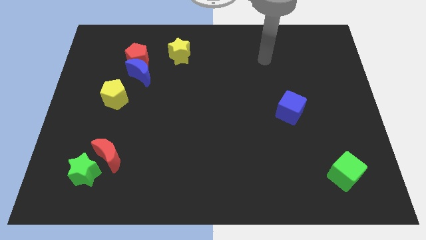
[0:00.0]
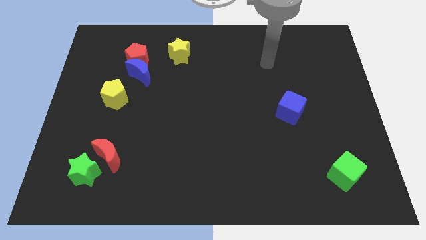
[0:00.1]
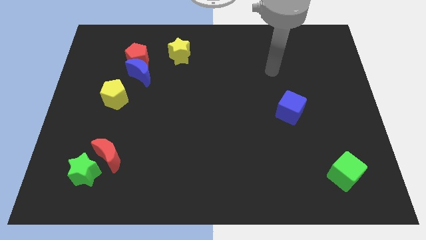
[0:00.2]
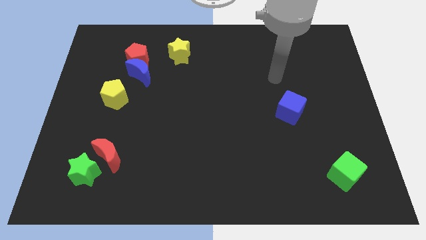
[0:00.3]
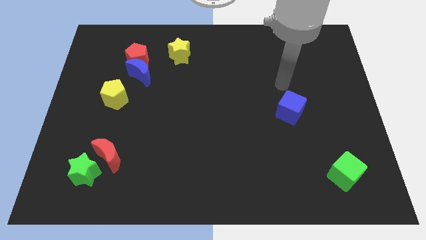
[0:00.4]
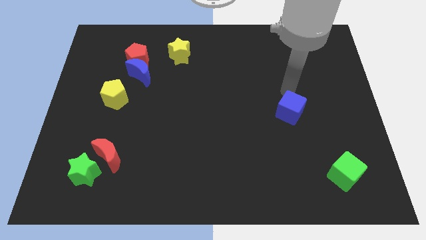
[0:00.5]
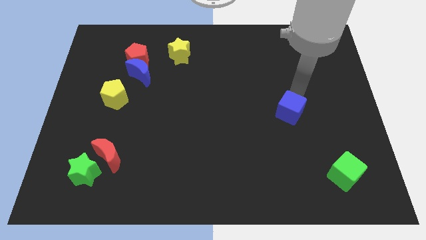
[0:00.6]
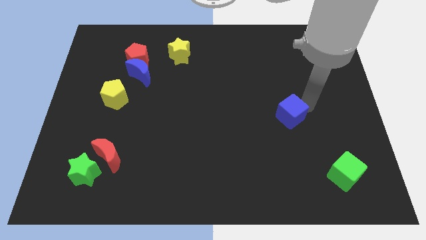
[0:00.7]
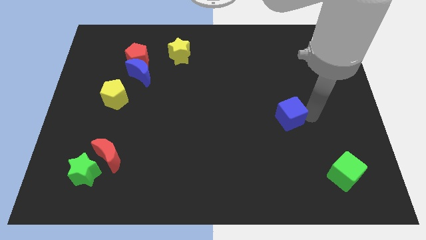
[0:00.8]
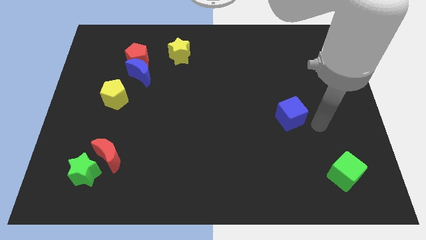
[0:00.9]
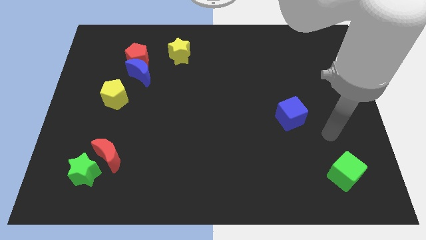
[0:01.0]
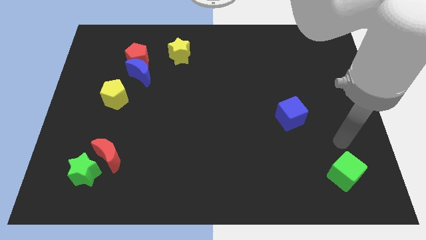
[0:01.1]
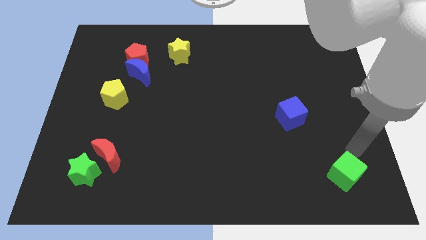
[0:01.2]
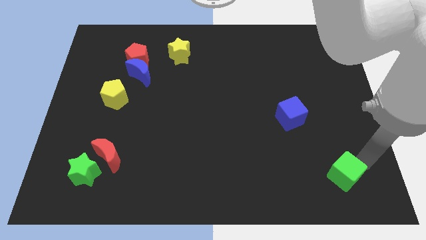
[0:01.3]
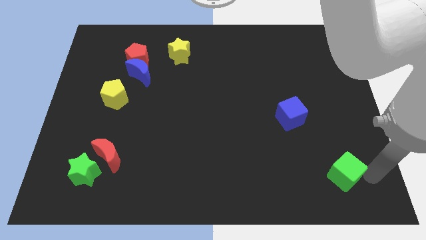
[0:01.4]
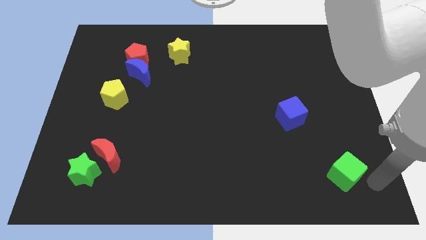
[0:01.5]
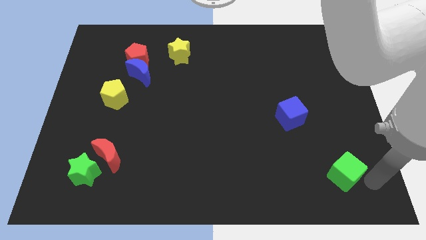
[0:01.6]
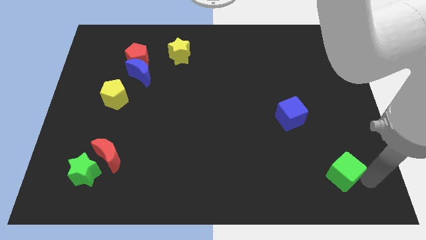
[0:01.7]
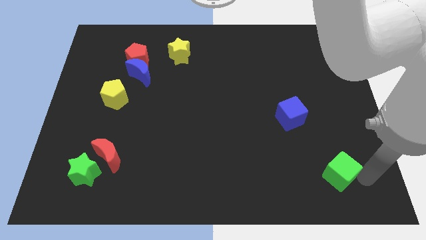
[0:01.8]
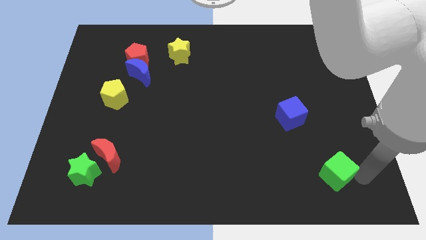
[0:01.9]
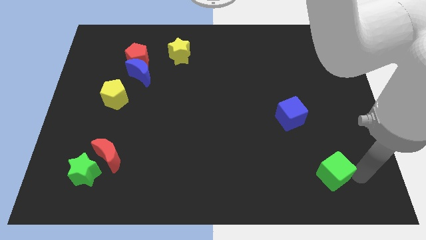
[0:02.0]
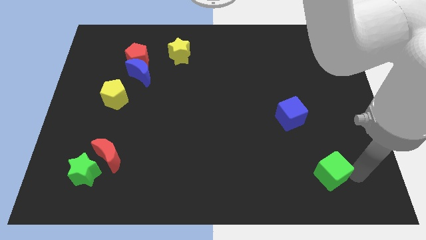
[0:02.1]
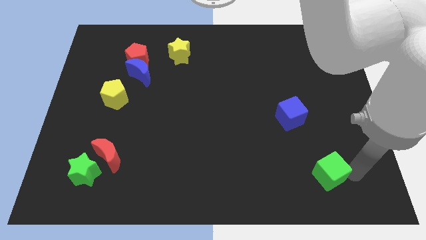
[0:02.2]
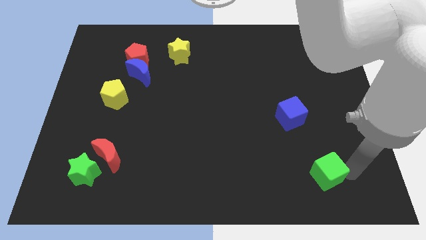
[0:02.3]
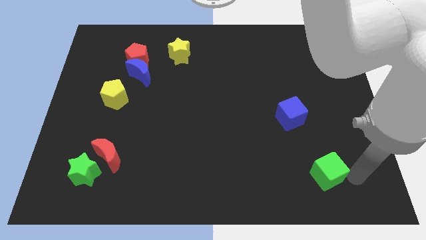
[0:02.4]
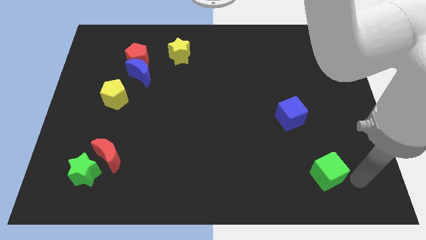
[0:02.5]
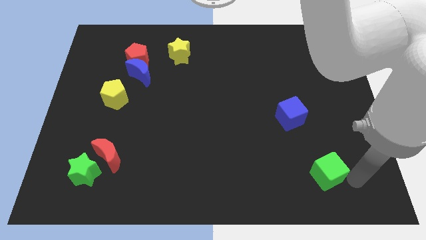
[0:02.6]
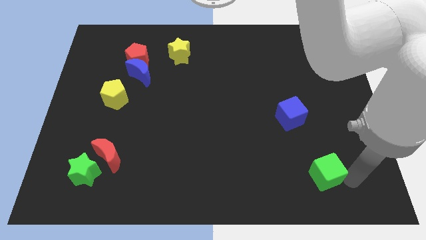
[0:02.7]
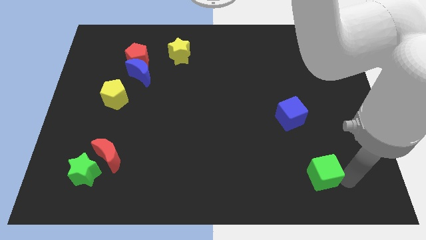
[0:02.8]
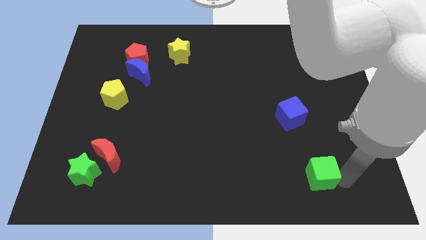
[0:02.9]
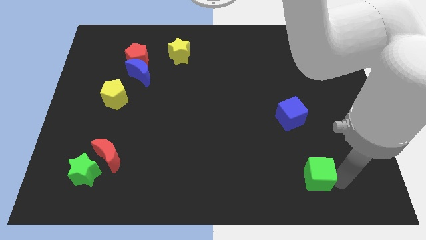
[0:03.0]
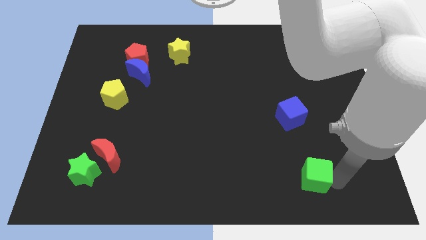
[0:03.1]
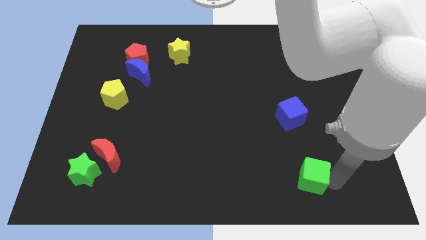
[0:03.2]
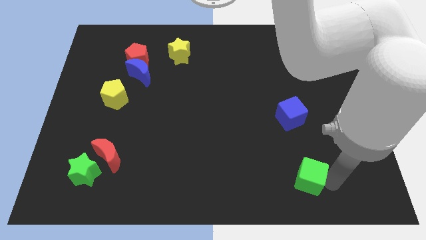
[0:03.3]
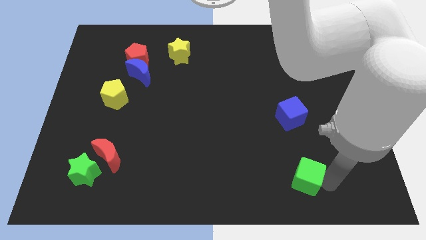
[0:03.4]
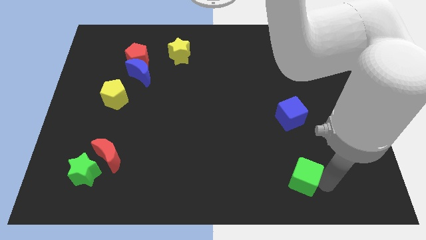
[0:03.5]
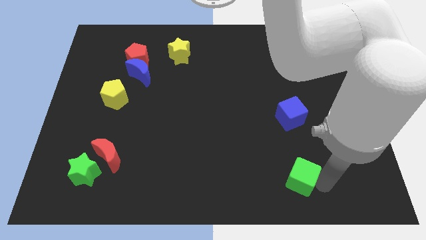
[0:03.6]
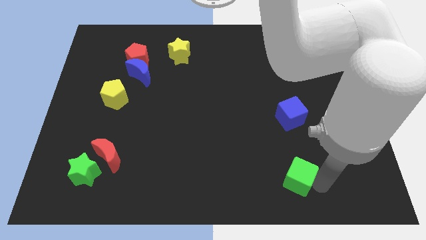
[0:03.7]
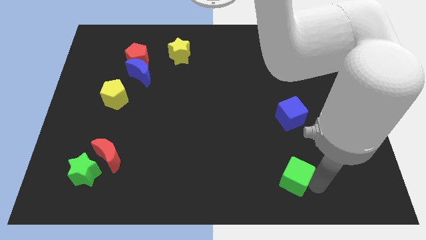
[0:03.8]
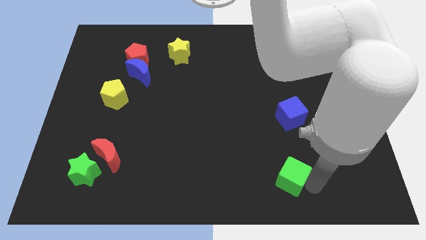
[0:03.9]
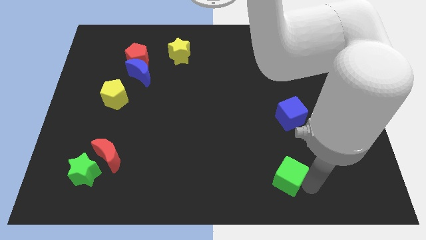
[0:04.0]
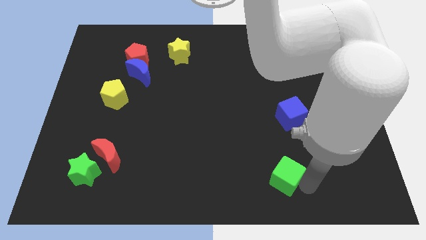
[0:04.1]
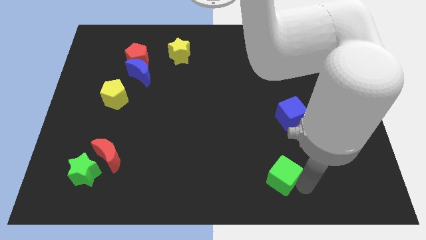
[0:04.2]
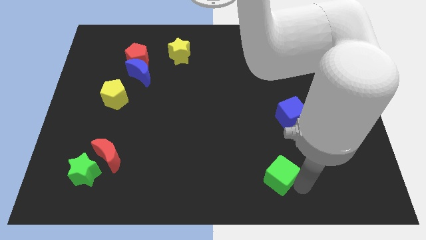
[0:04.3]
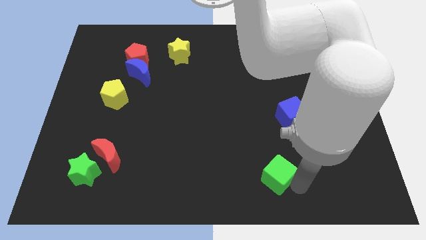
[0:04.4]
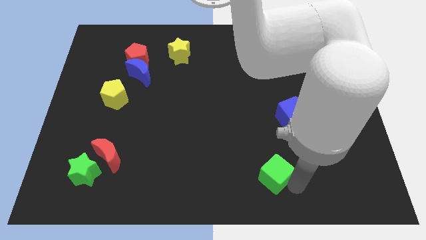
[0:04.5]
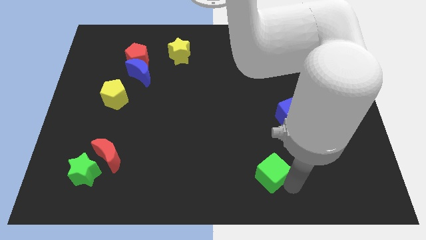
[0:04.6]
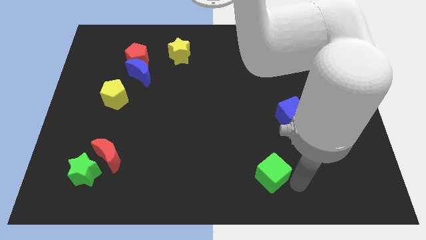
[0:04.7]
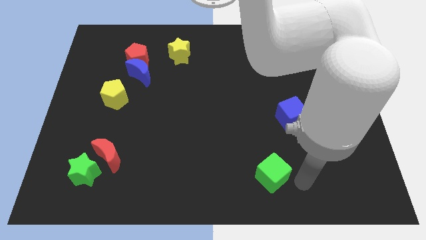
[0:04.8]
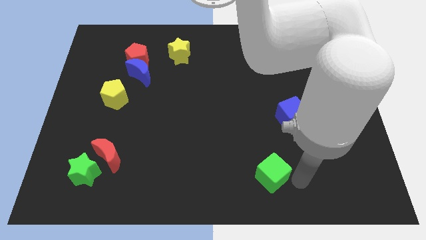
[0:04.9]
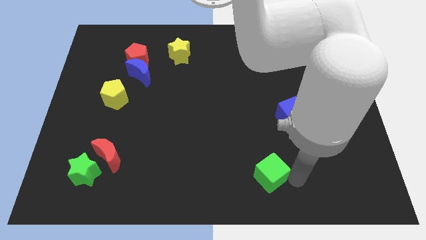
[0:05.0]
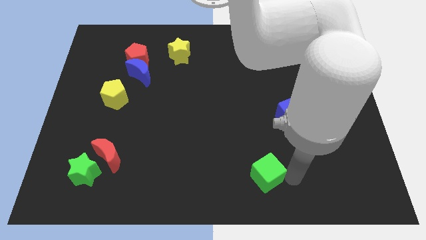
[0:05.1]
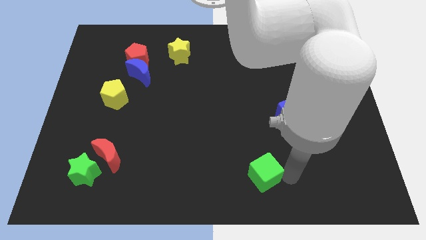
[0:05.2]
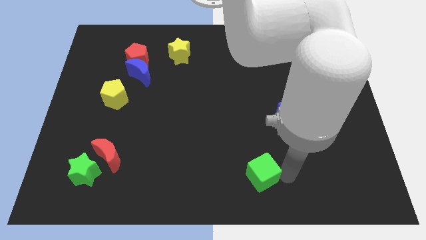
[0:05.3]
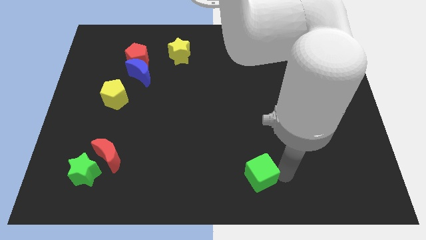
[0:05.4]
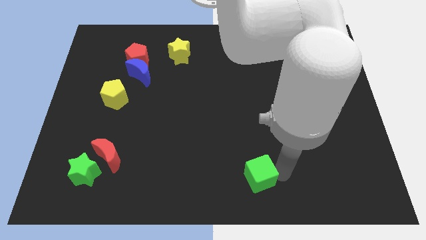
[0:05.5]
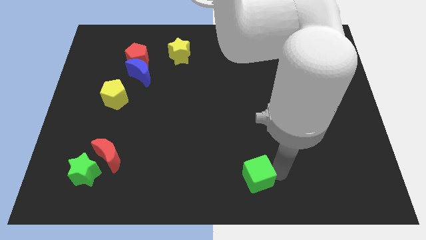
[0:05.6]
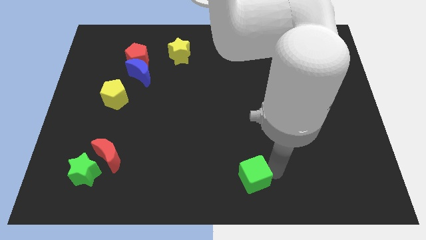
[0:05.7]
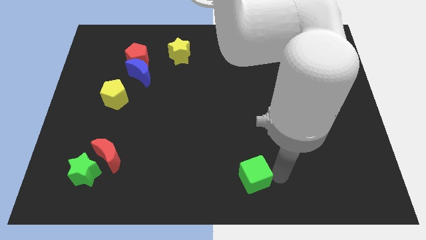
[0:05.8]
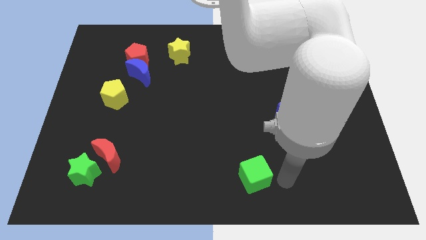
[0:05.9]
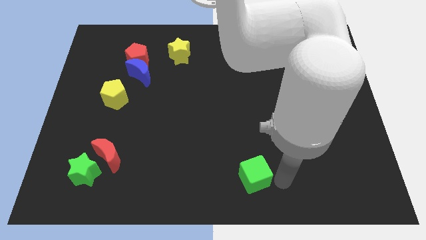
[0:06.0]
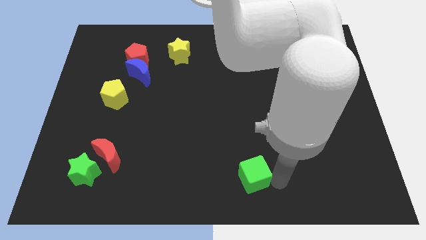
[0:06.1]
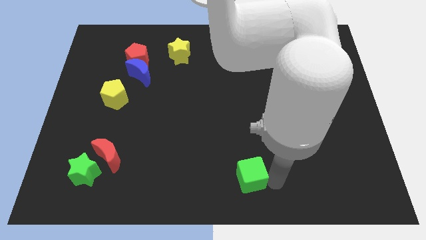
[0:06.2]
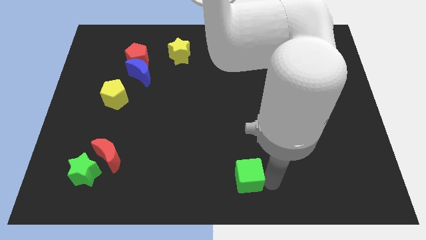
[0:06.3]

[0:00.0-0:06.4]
push the green cube left

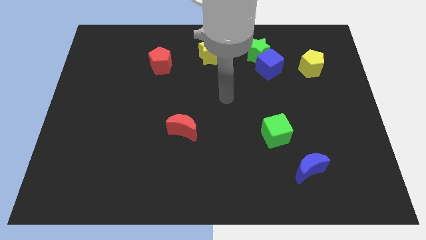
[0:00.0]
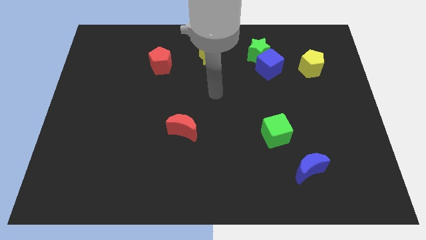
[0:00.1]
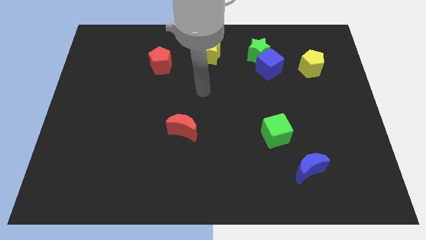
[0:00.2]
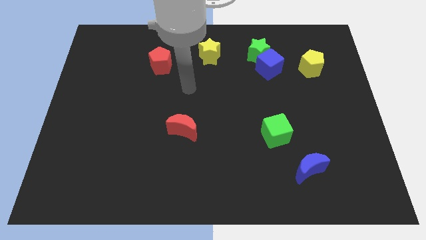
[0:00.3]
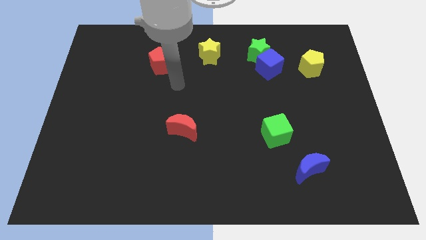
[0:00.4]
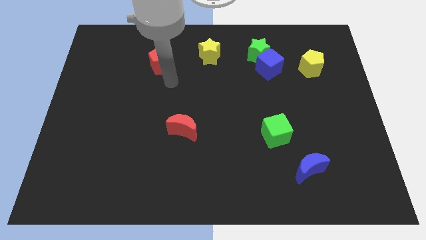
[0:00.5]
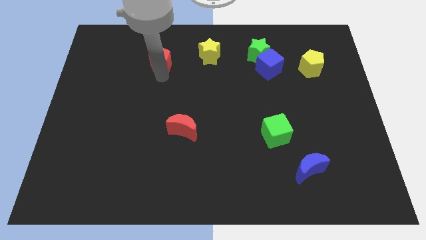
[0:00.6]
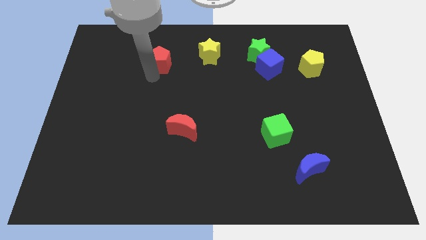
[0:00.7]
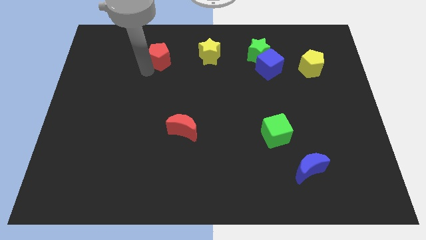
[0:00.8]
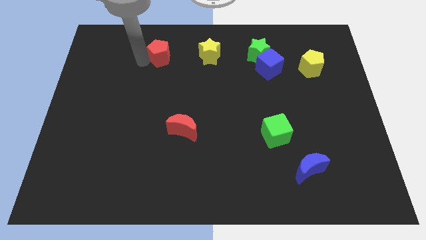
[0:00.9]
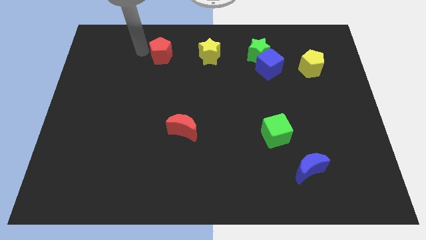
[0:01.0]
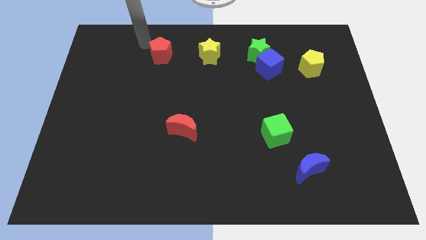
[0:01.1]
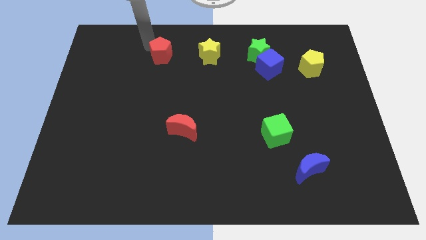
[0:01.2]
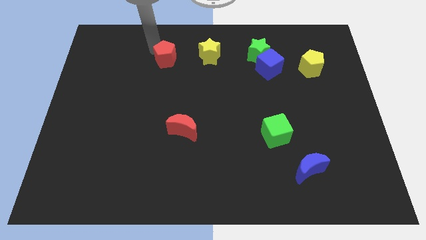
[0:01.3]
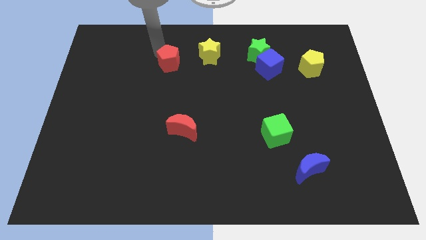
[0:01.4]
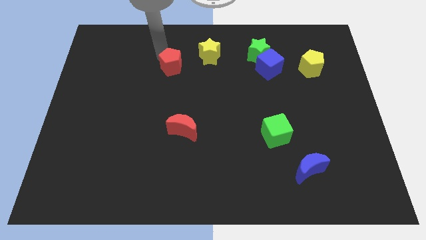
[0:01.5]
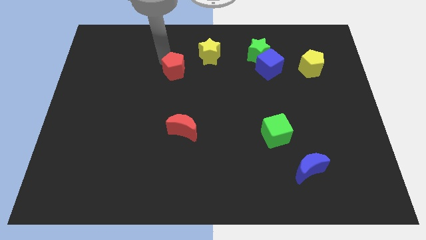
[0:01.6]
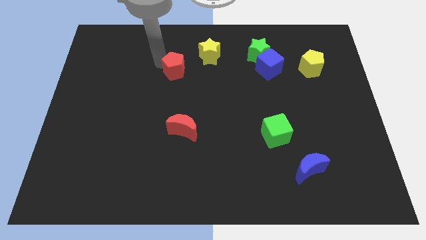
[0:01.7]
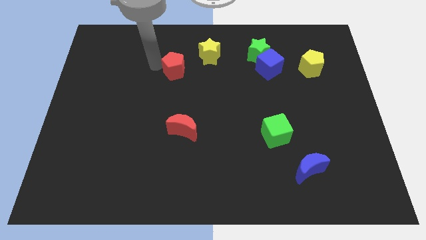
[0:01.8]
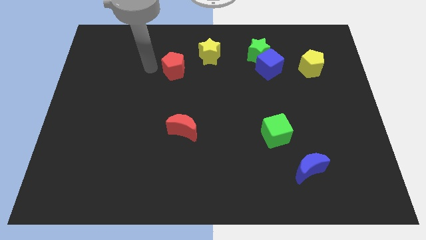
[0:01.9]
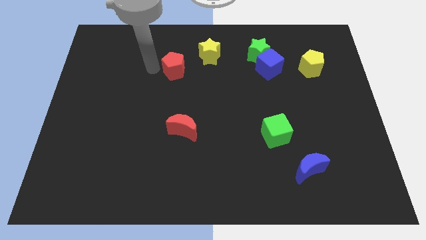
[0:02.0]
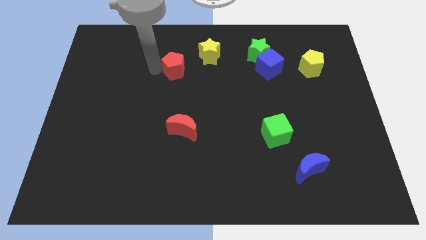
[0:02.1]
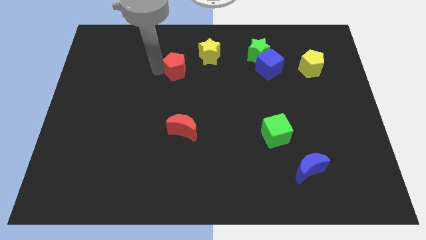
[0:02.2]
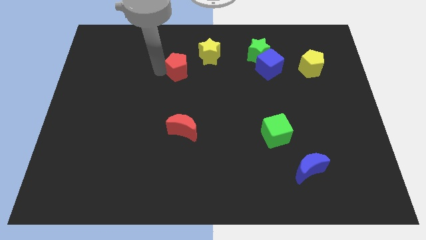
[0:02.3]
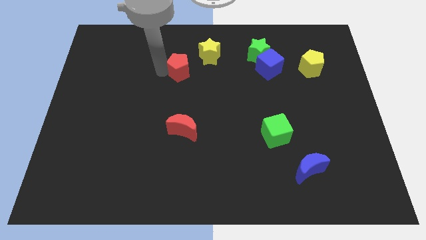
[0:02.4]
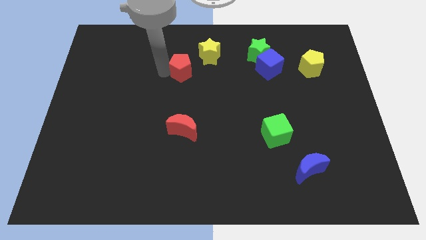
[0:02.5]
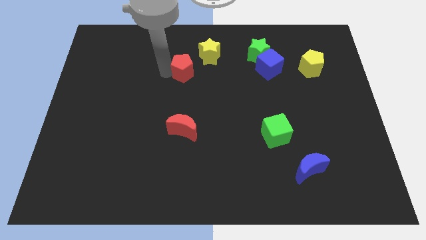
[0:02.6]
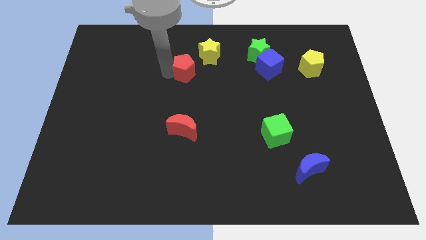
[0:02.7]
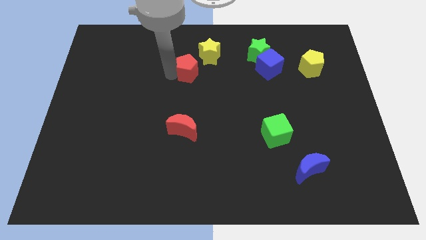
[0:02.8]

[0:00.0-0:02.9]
push the red pentagon to the right a little
